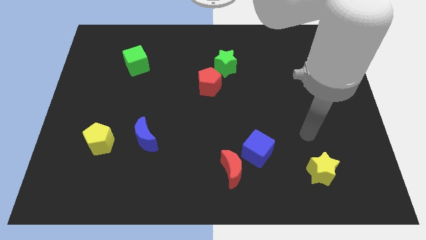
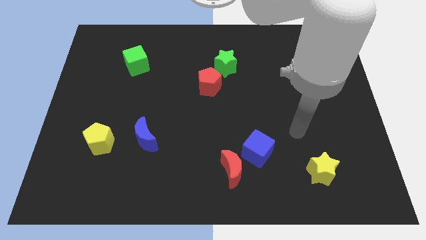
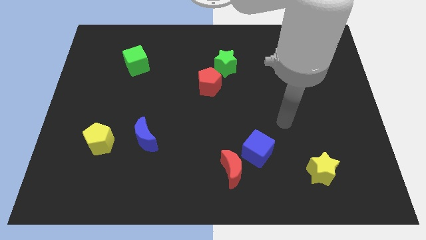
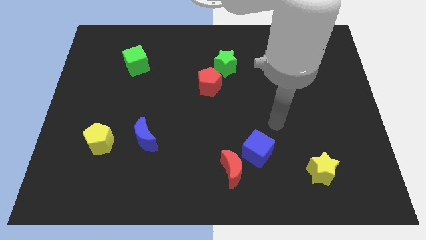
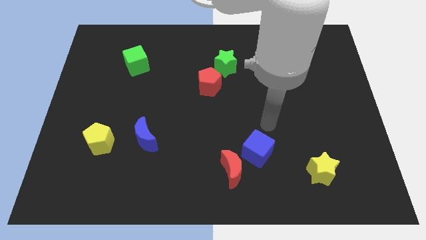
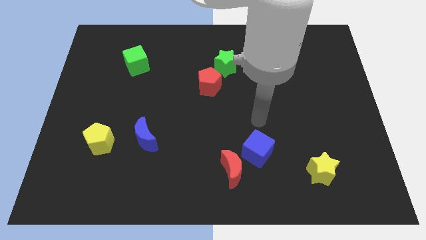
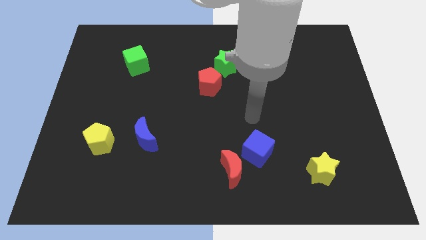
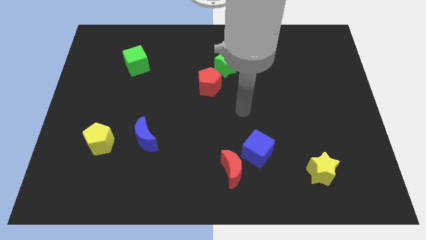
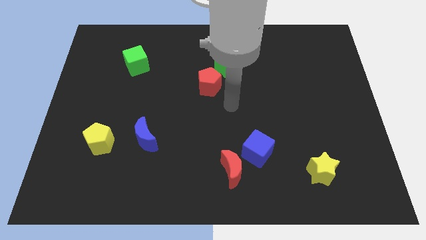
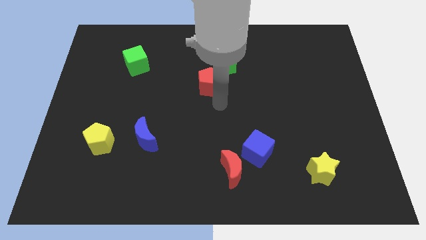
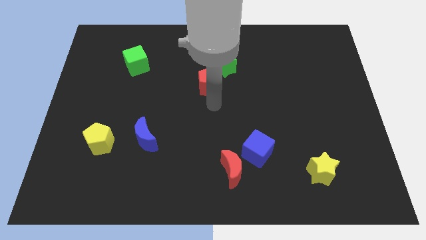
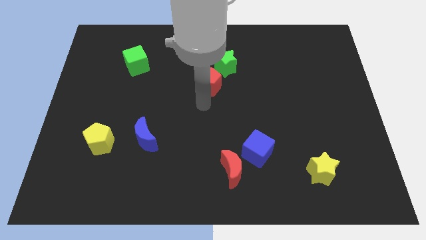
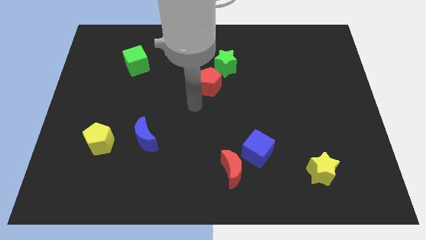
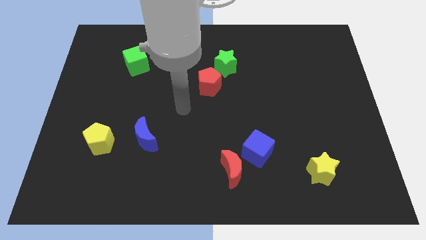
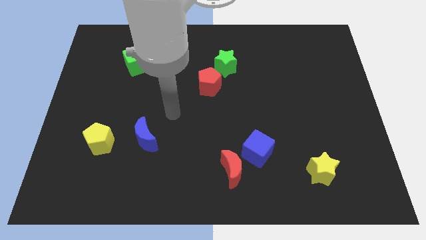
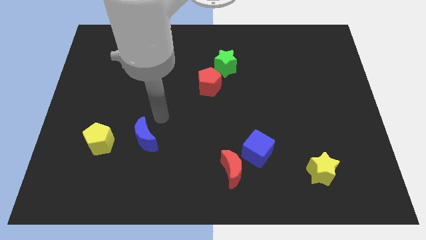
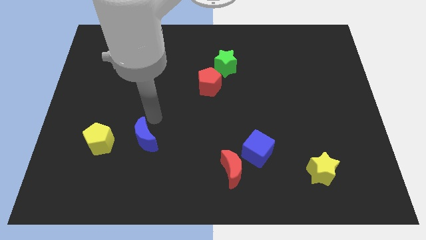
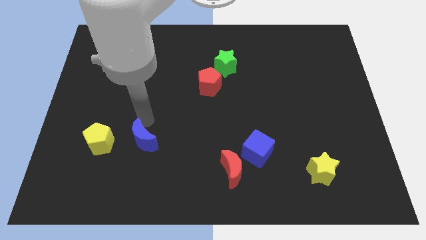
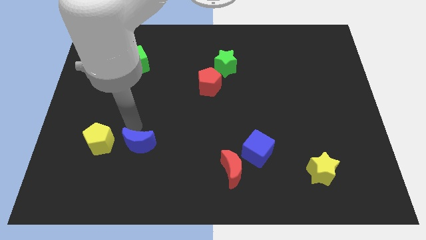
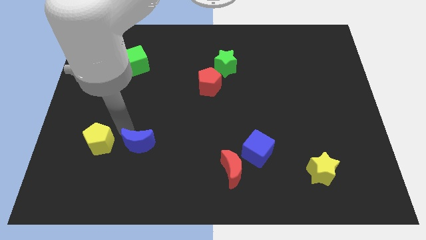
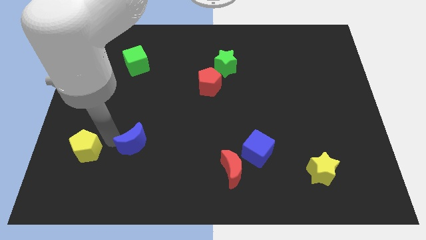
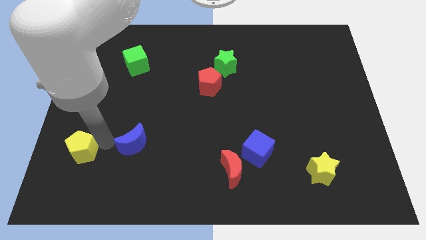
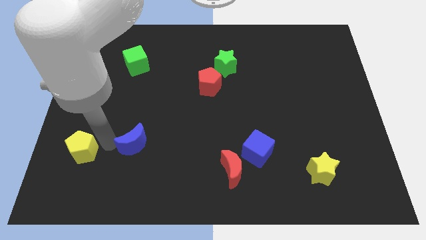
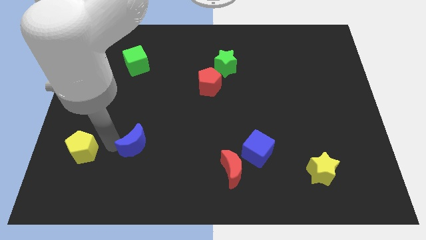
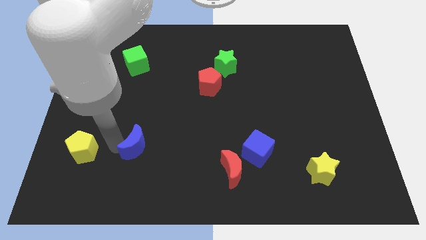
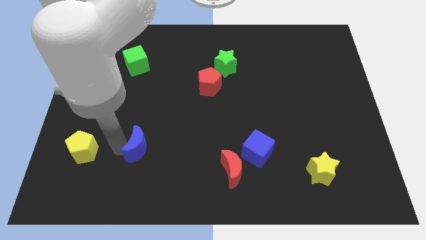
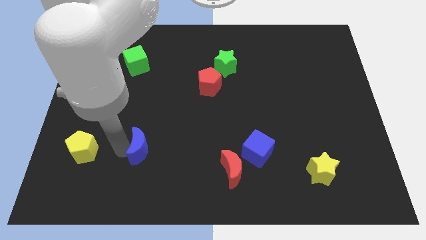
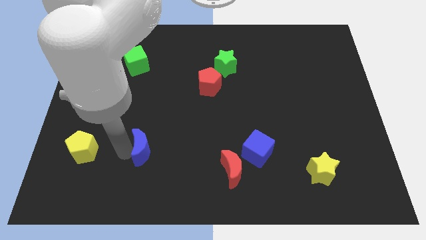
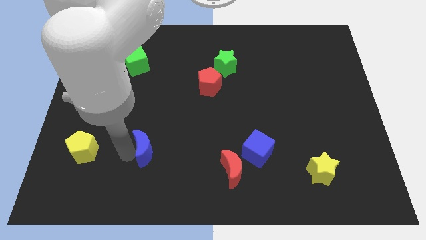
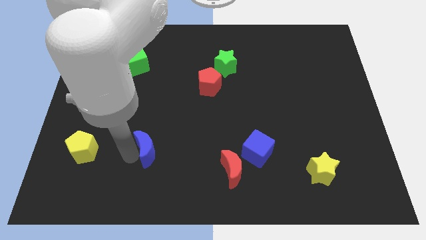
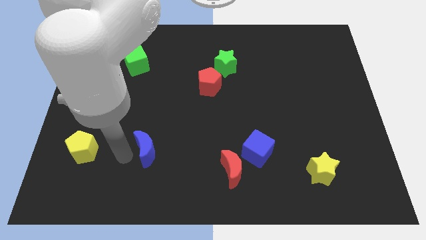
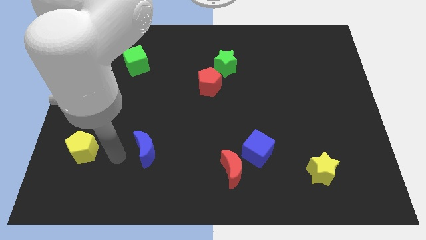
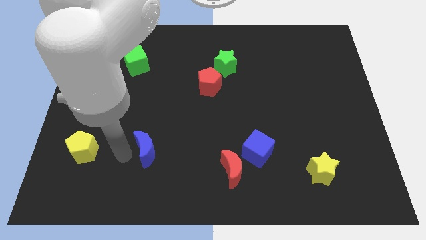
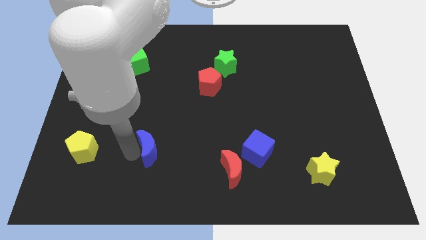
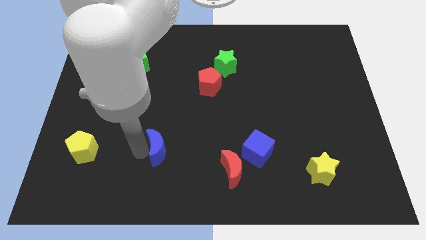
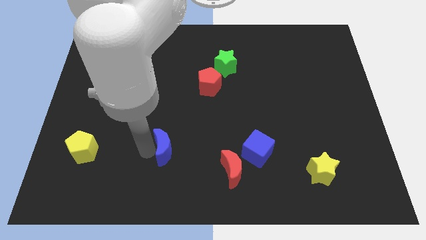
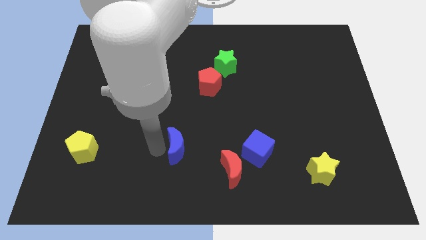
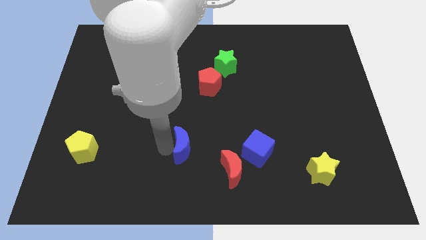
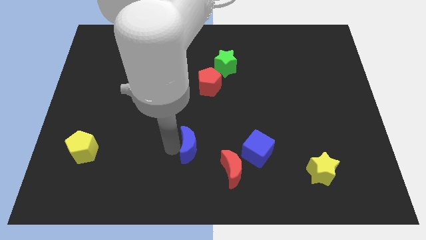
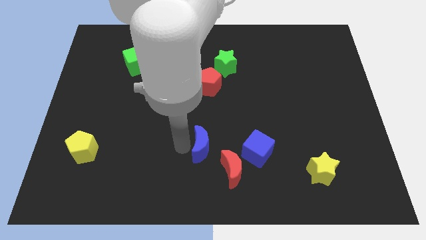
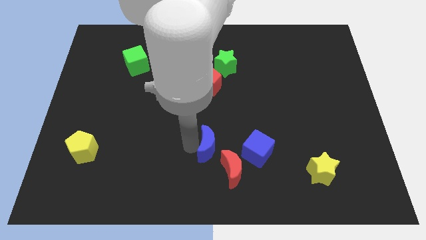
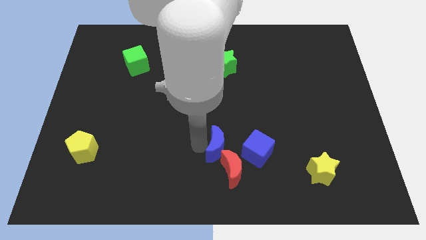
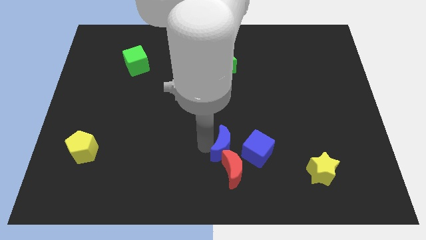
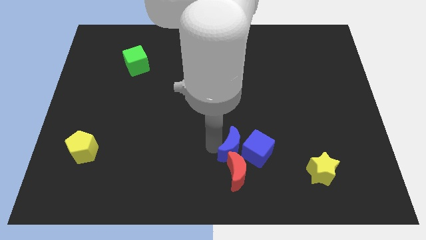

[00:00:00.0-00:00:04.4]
move the blue moon next to the blue cube

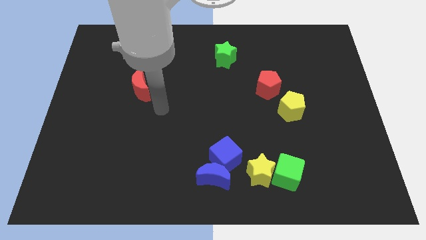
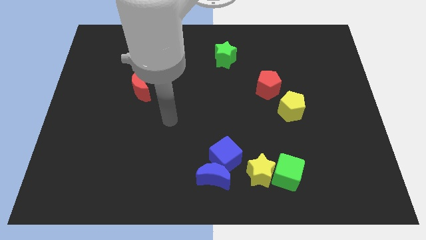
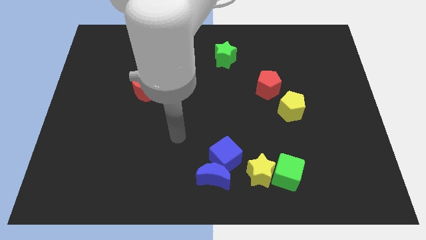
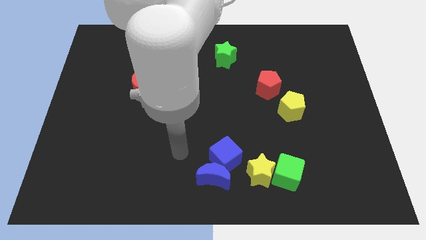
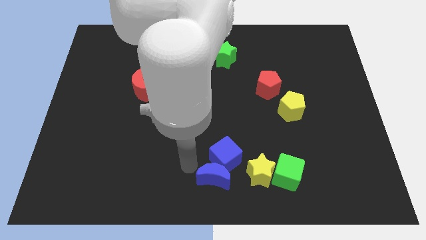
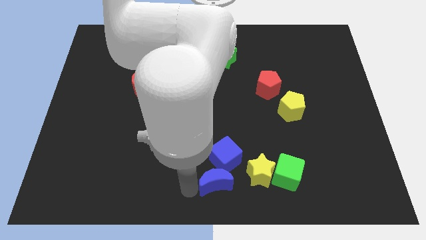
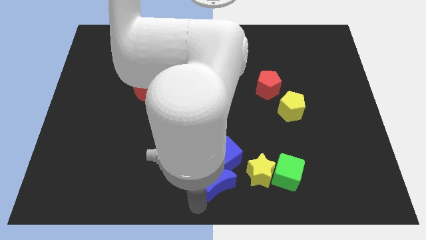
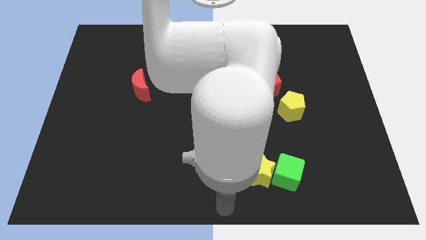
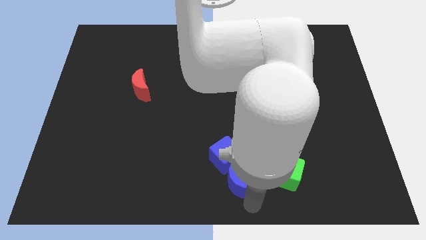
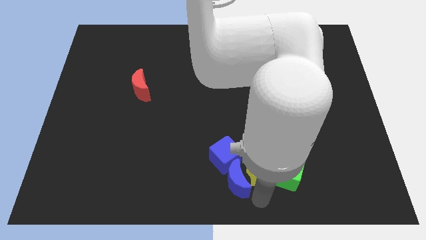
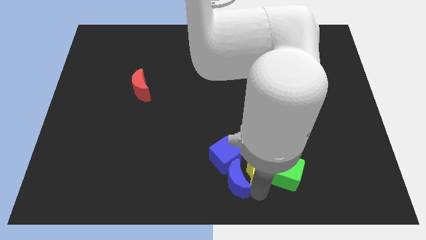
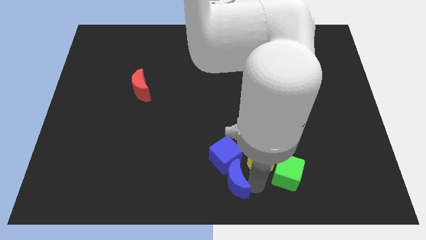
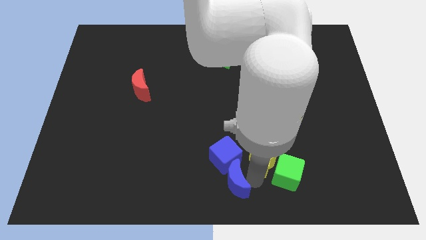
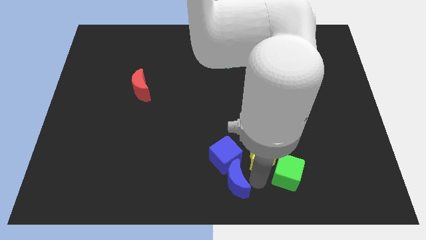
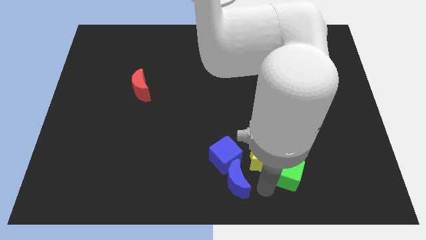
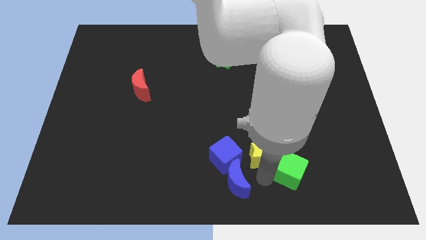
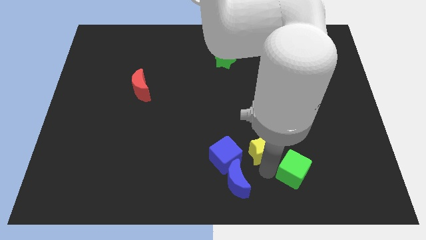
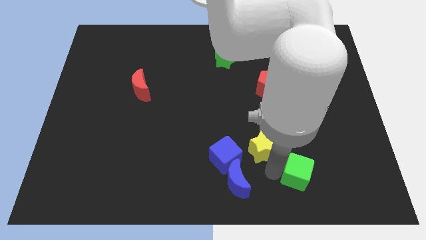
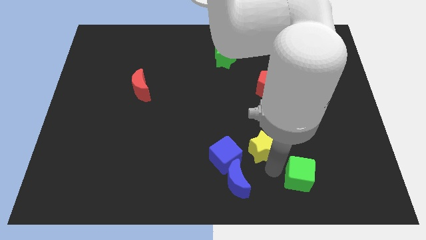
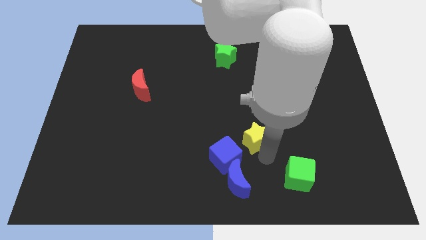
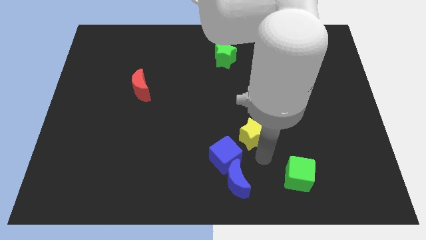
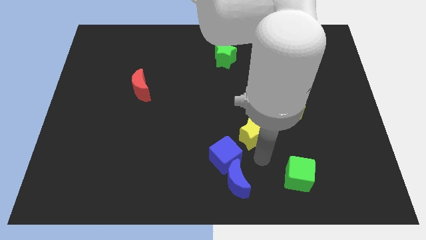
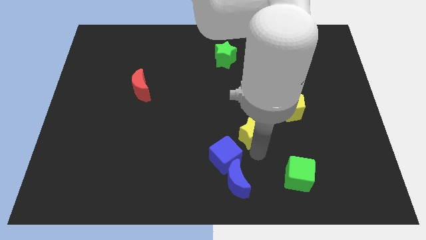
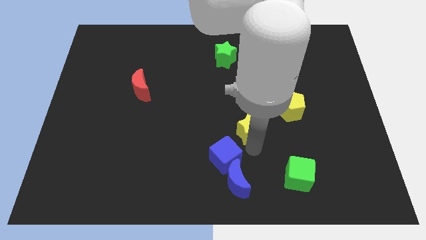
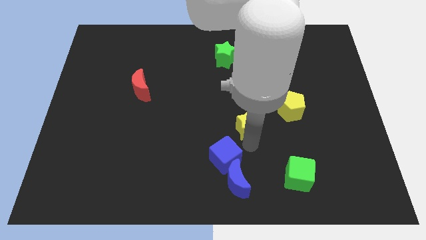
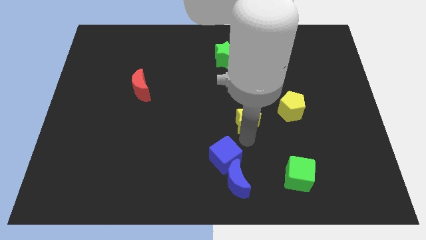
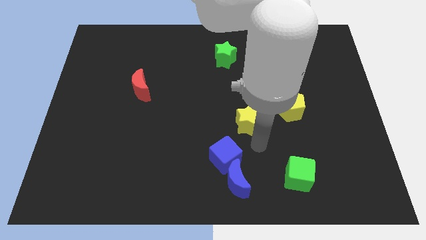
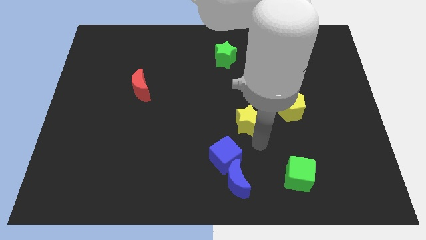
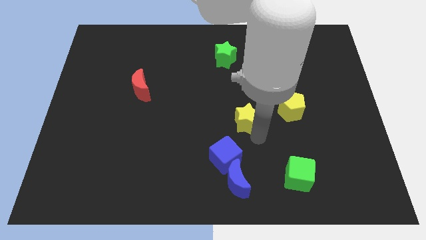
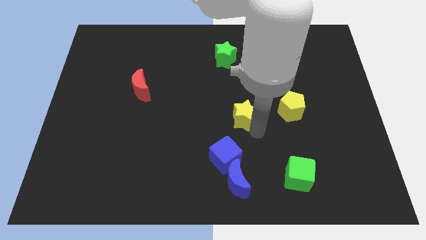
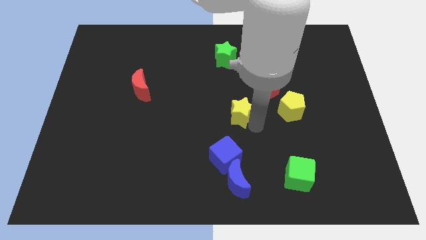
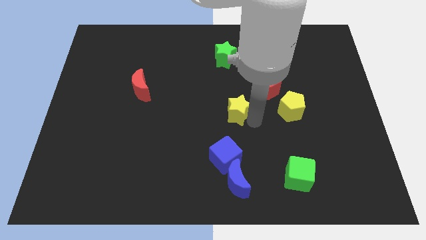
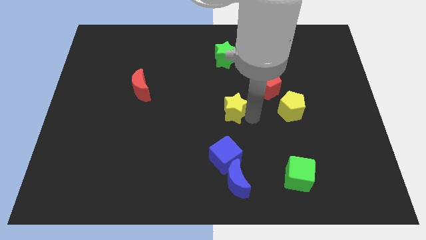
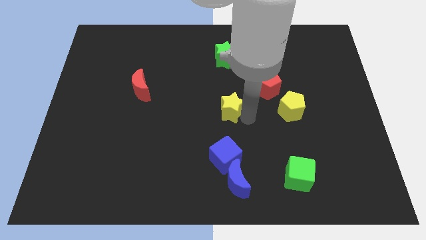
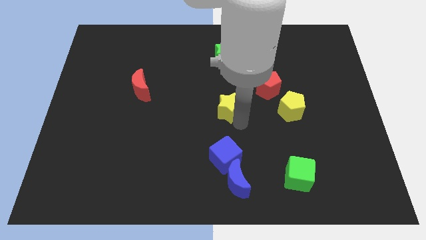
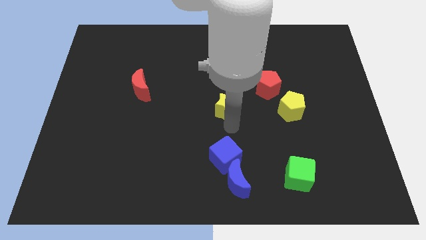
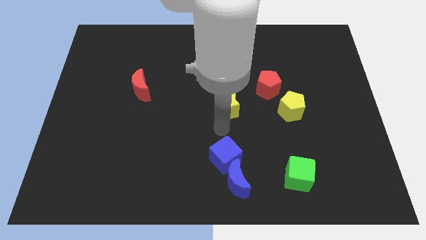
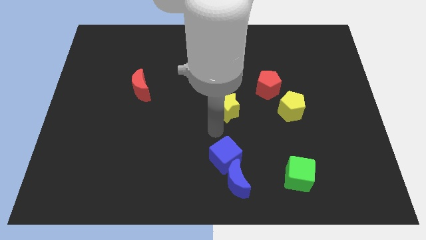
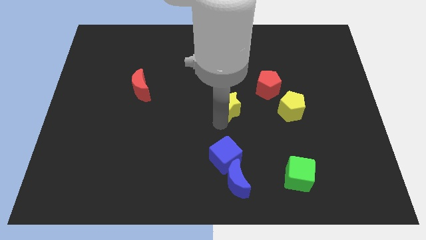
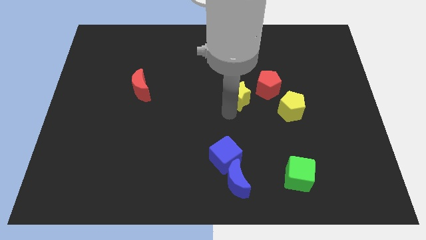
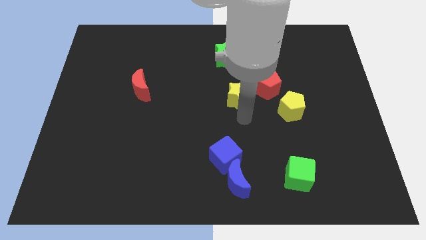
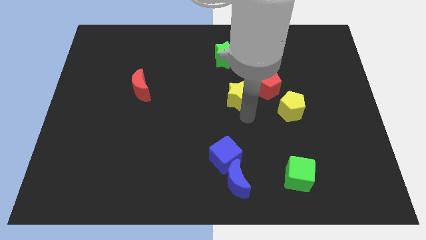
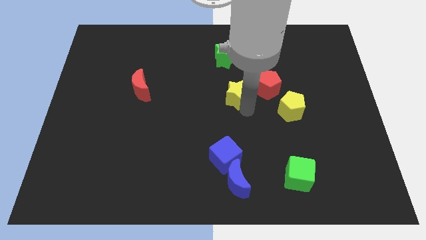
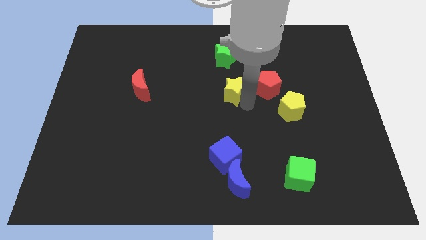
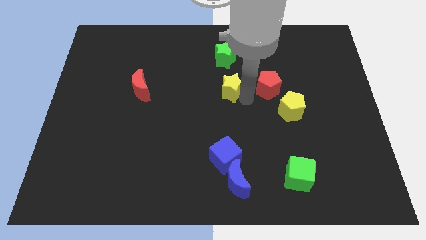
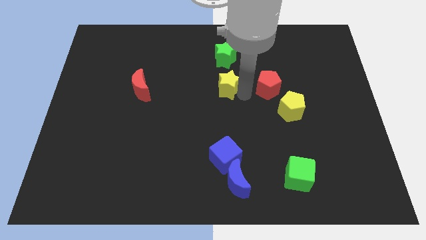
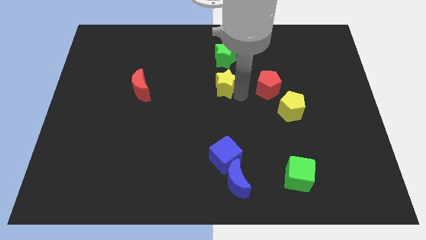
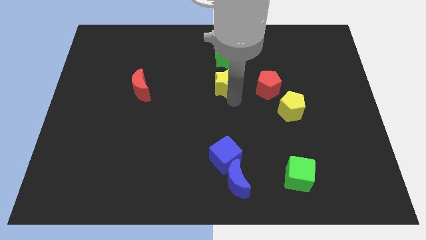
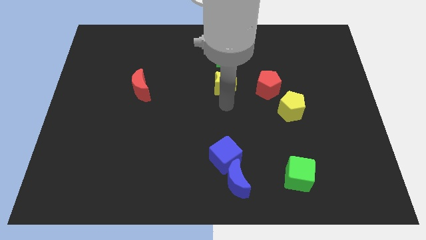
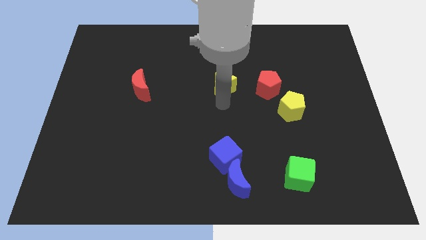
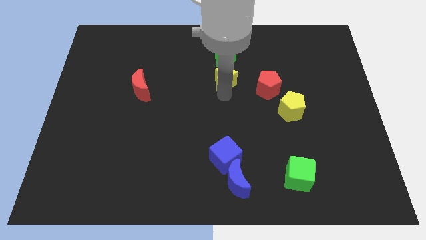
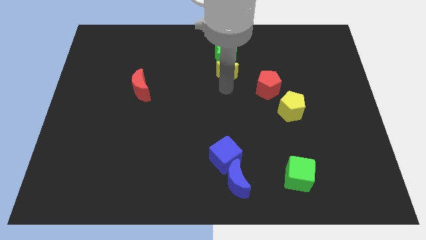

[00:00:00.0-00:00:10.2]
push the yellow star to the green star
